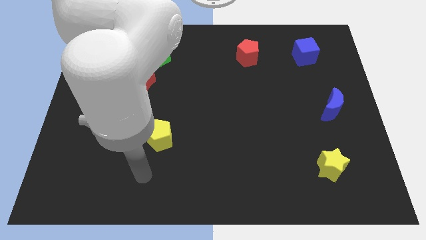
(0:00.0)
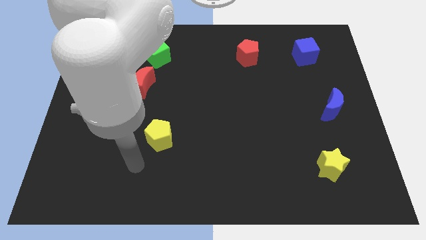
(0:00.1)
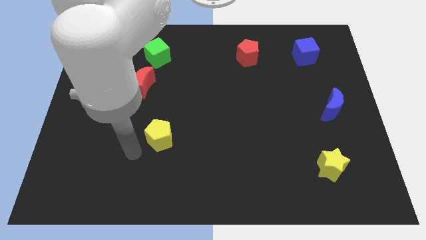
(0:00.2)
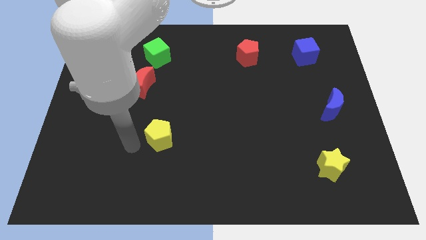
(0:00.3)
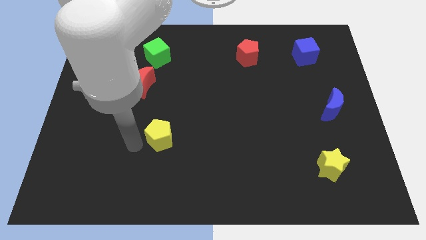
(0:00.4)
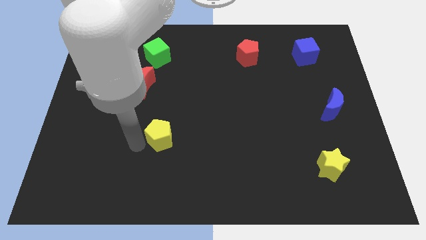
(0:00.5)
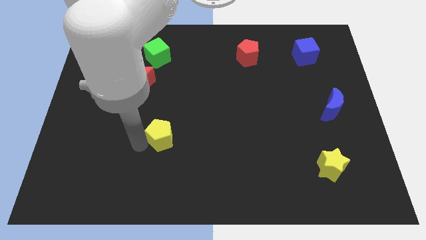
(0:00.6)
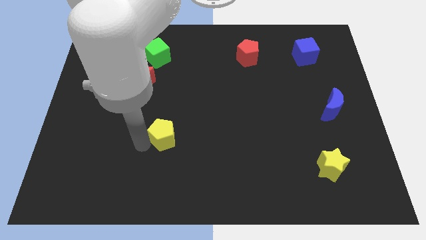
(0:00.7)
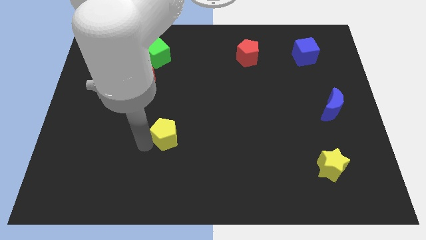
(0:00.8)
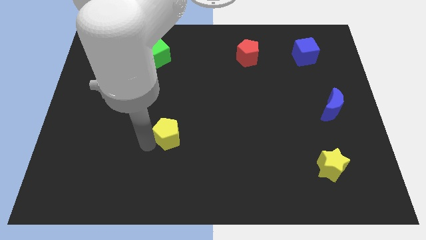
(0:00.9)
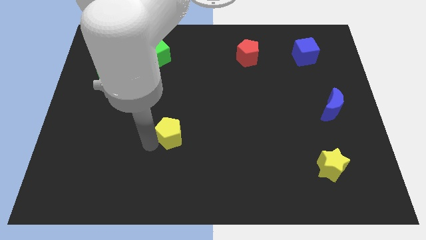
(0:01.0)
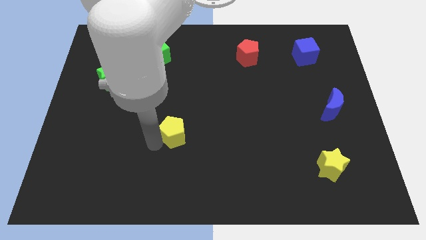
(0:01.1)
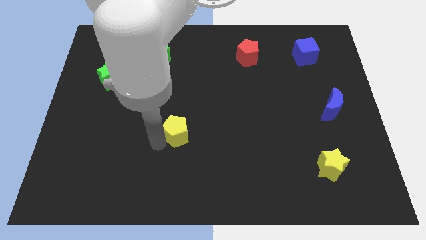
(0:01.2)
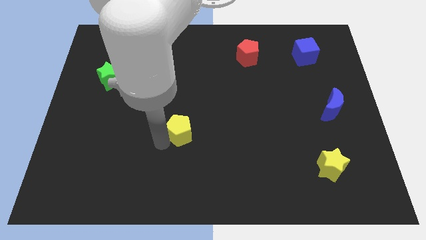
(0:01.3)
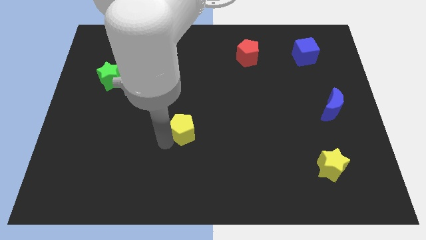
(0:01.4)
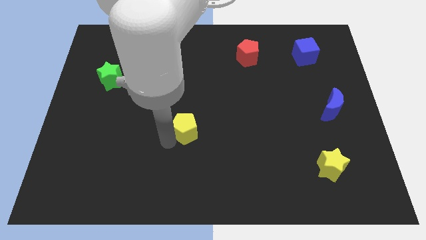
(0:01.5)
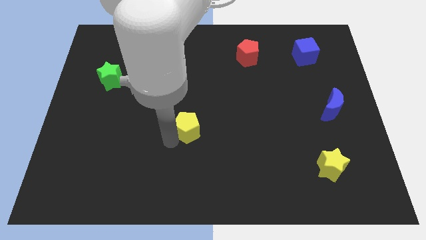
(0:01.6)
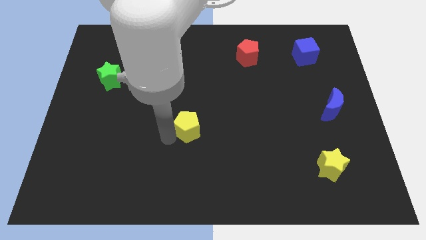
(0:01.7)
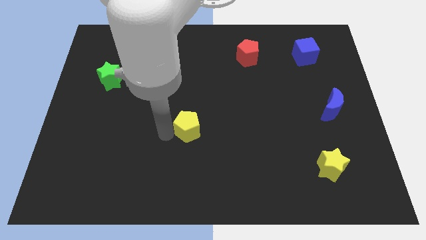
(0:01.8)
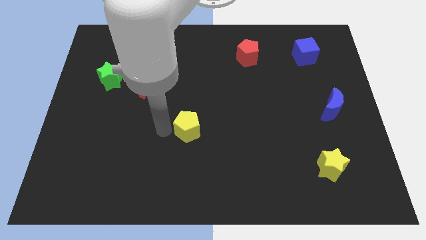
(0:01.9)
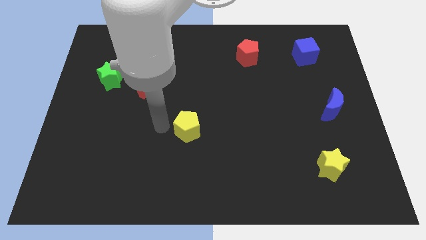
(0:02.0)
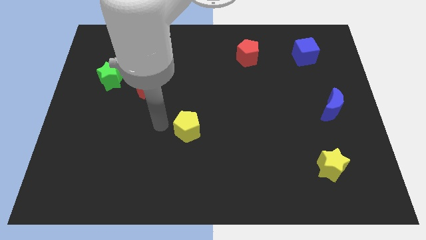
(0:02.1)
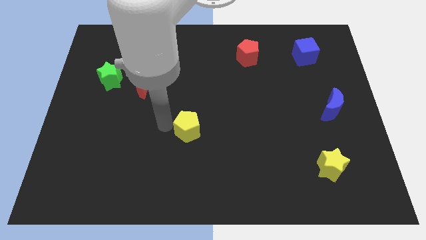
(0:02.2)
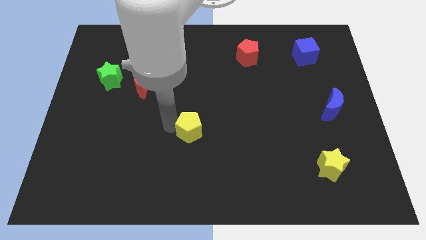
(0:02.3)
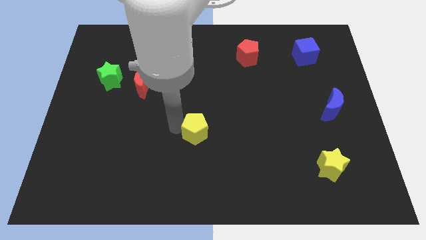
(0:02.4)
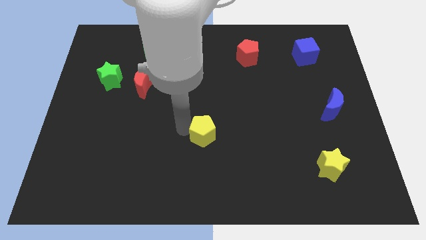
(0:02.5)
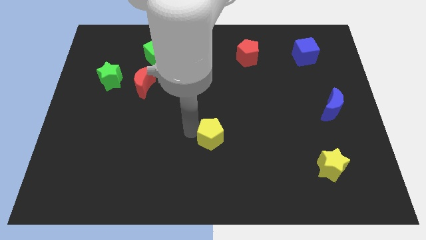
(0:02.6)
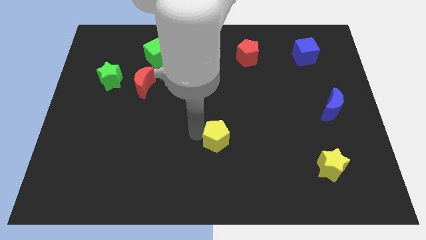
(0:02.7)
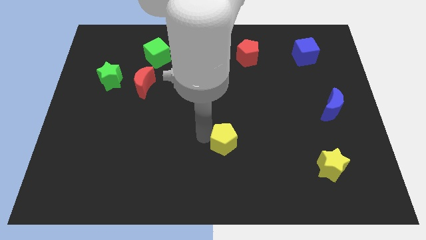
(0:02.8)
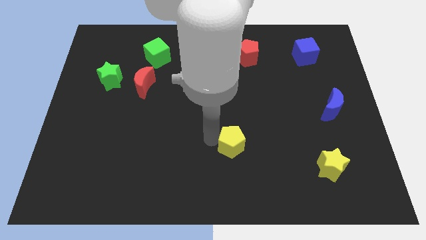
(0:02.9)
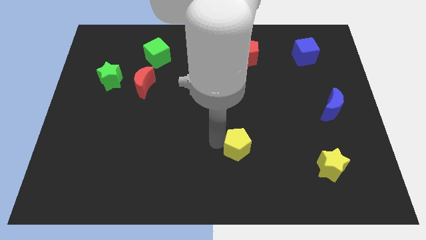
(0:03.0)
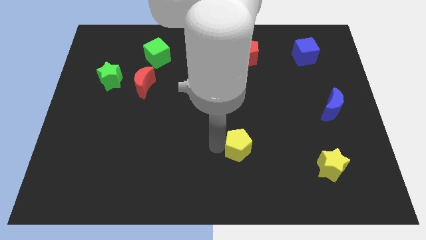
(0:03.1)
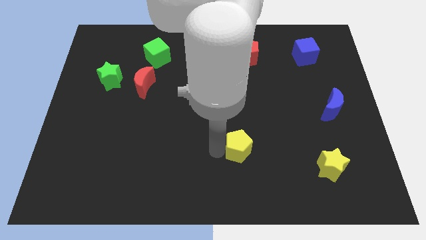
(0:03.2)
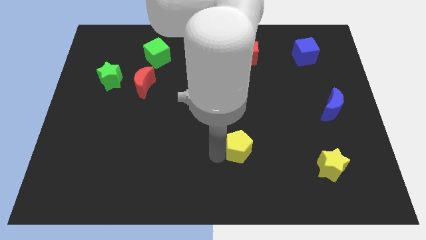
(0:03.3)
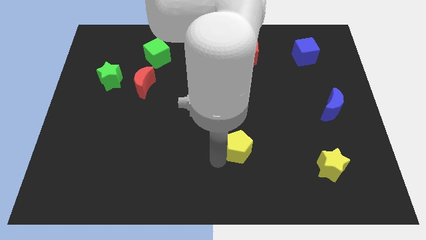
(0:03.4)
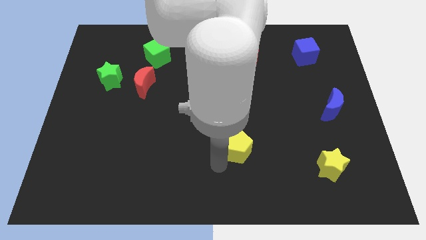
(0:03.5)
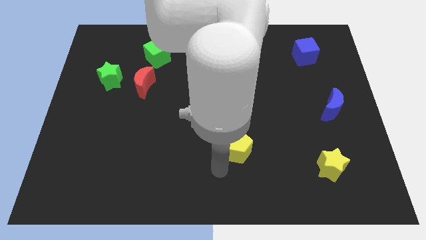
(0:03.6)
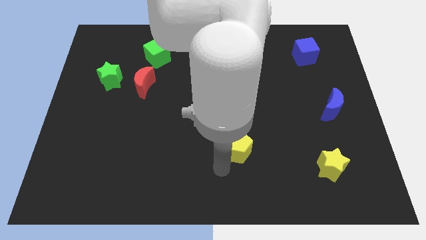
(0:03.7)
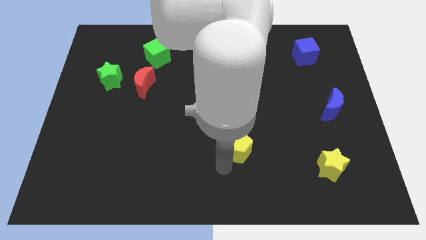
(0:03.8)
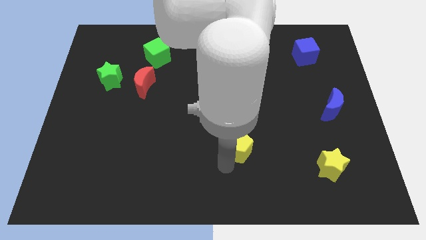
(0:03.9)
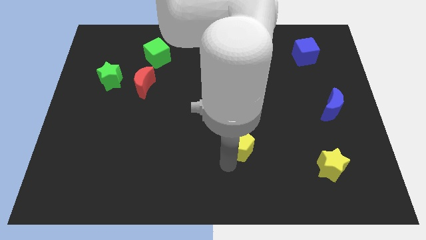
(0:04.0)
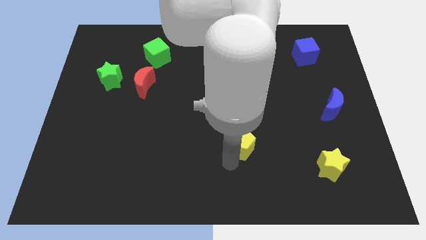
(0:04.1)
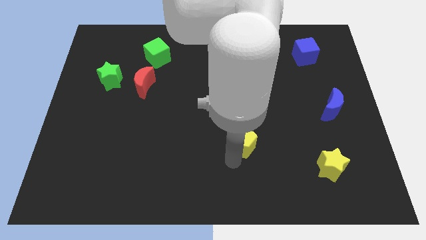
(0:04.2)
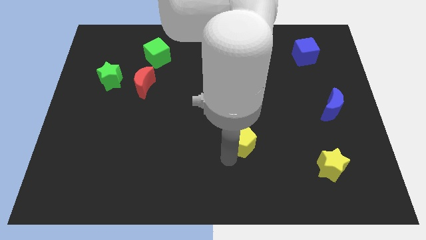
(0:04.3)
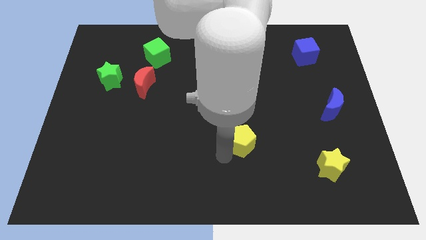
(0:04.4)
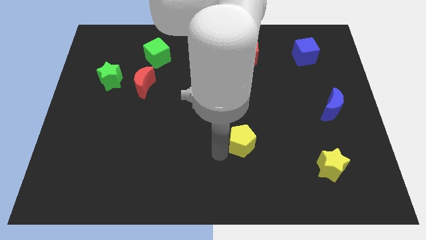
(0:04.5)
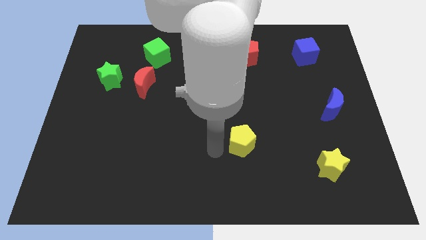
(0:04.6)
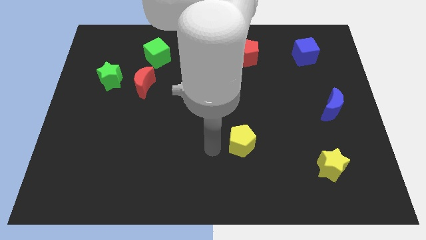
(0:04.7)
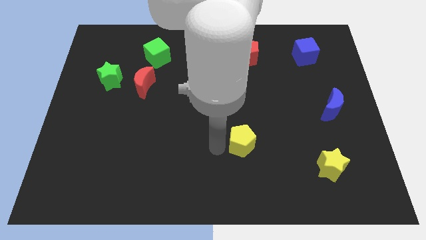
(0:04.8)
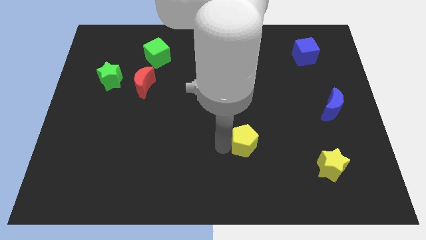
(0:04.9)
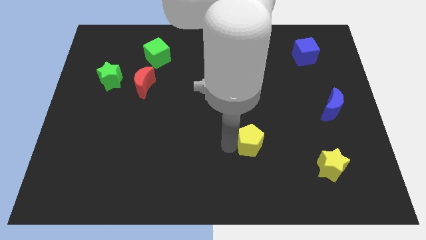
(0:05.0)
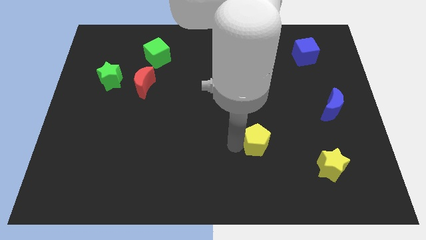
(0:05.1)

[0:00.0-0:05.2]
move the yellow pentagon to the right

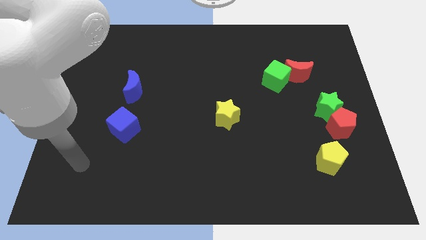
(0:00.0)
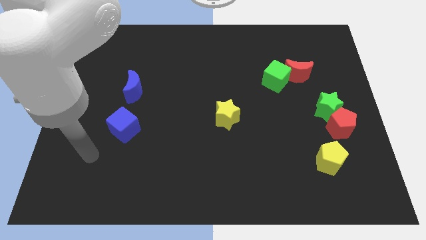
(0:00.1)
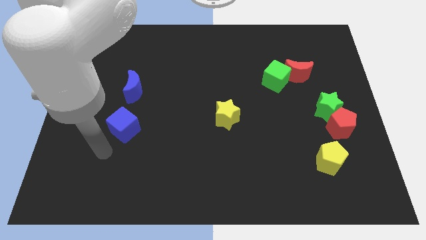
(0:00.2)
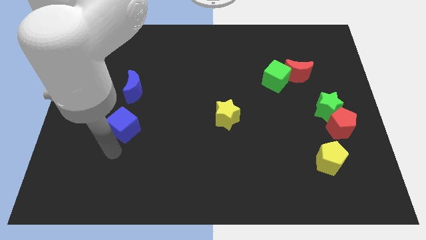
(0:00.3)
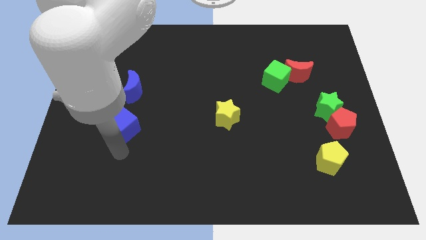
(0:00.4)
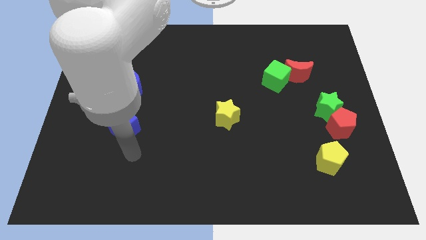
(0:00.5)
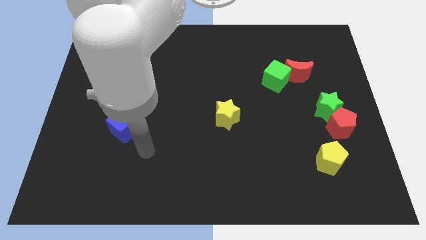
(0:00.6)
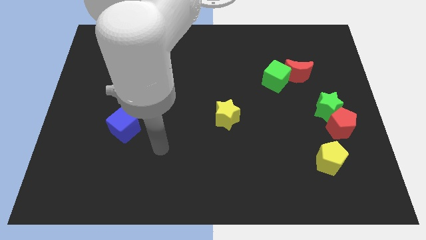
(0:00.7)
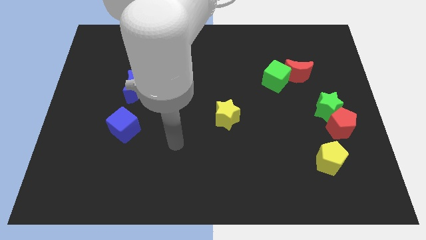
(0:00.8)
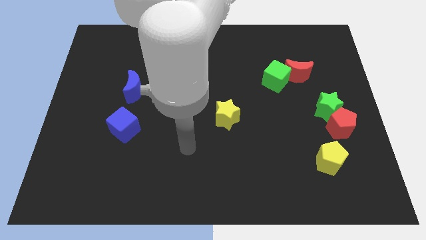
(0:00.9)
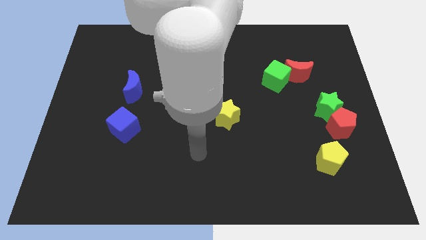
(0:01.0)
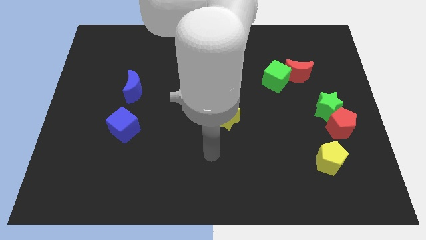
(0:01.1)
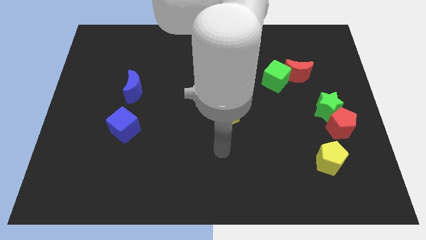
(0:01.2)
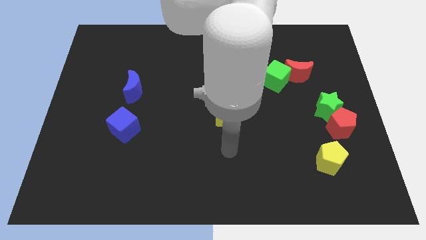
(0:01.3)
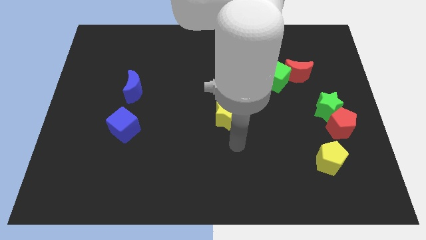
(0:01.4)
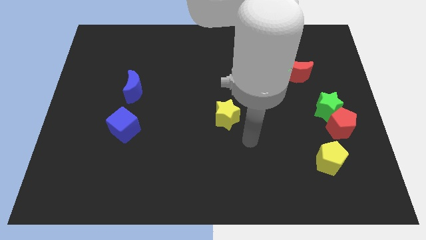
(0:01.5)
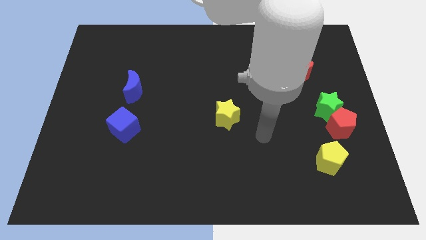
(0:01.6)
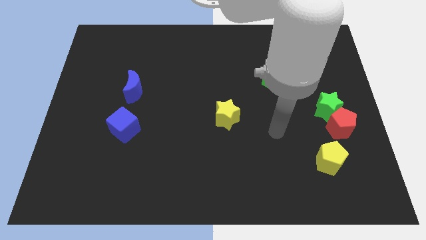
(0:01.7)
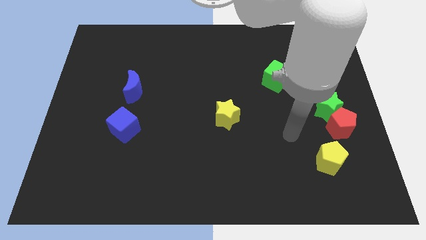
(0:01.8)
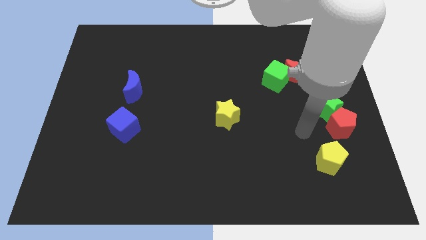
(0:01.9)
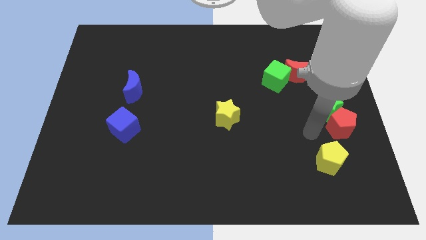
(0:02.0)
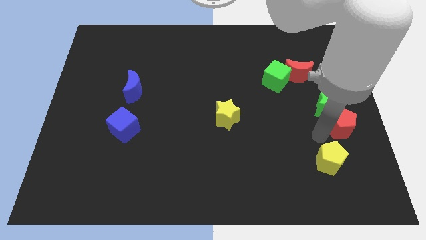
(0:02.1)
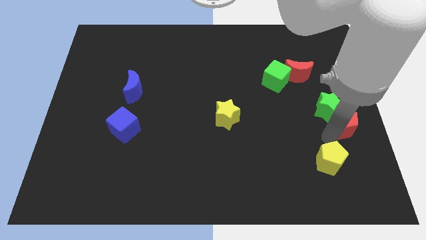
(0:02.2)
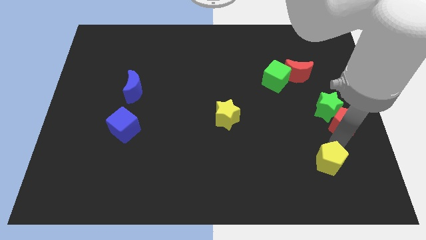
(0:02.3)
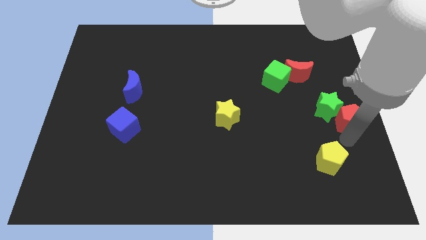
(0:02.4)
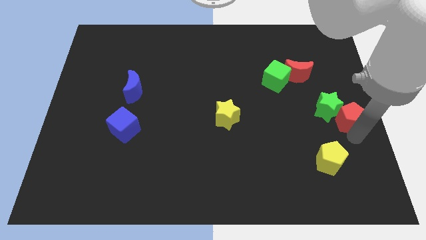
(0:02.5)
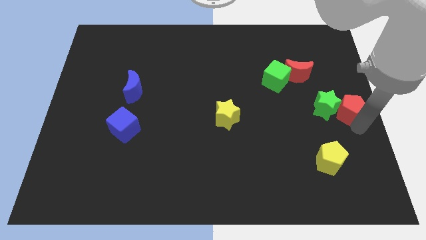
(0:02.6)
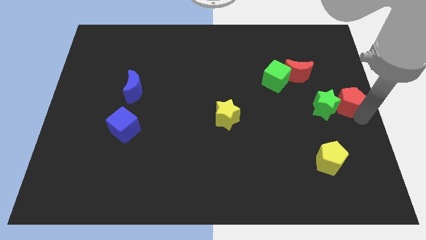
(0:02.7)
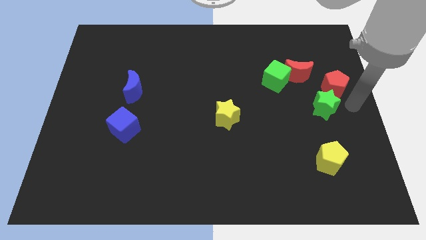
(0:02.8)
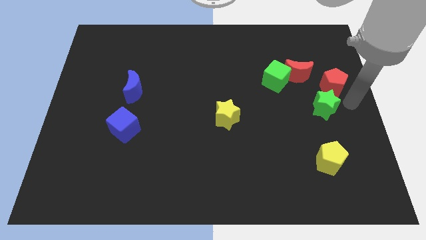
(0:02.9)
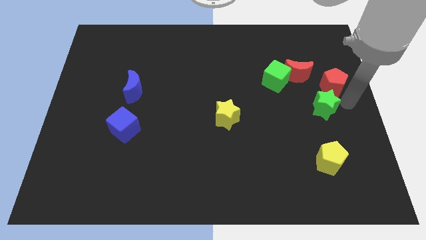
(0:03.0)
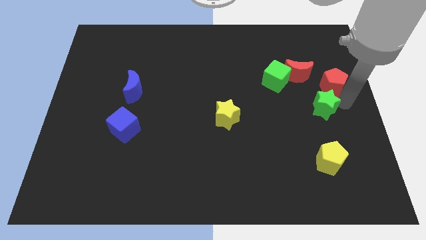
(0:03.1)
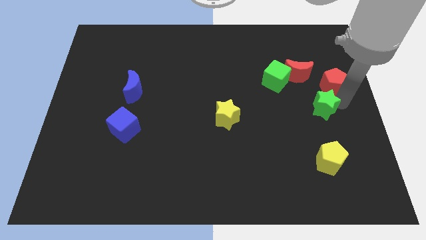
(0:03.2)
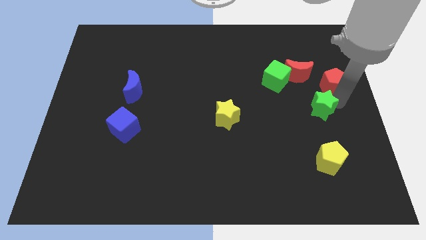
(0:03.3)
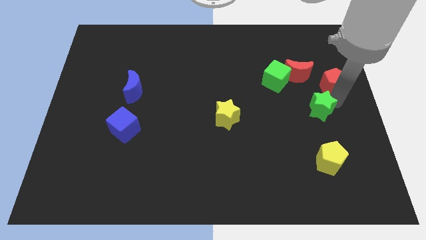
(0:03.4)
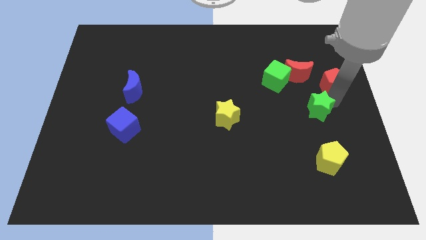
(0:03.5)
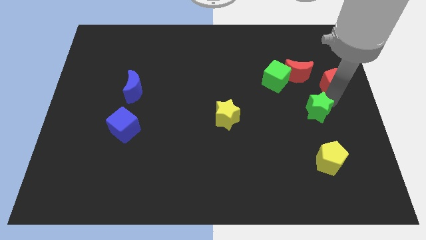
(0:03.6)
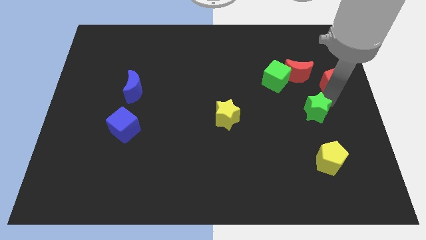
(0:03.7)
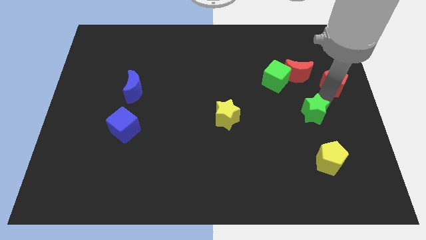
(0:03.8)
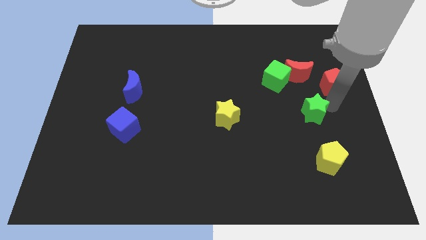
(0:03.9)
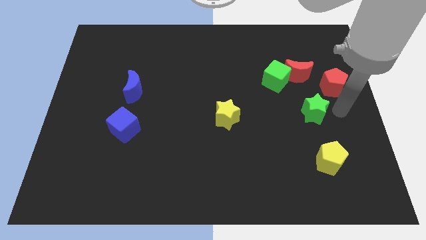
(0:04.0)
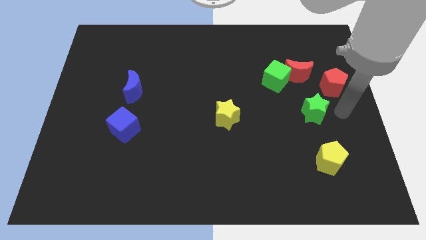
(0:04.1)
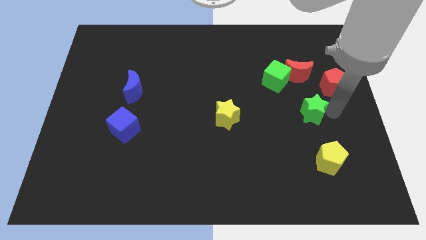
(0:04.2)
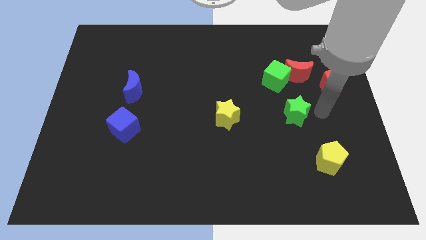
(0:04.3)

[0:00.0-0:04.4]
move the green star a little bit to the left
